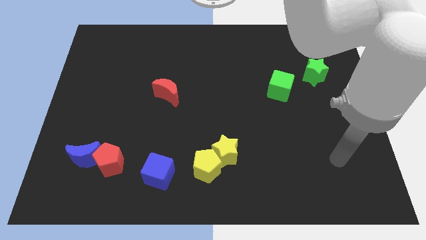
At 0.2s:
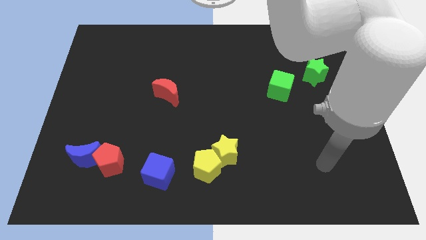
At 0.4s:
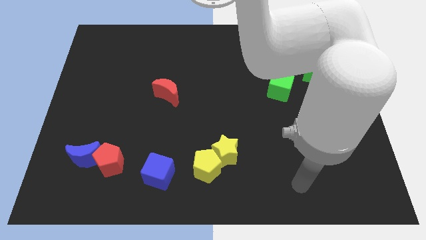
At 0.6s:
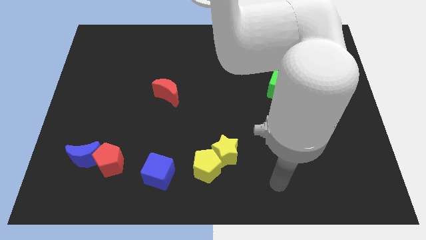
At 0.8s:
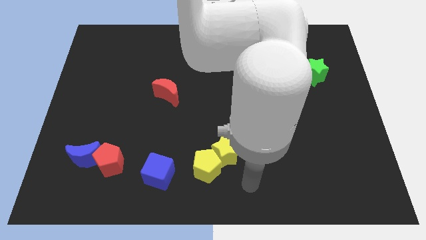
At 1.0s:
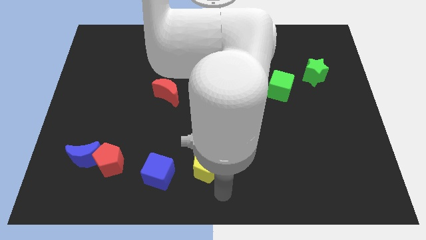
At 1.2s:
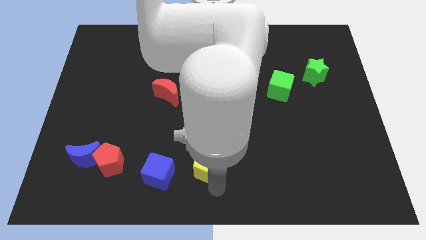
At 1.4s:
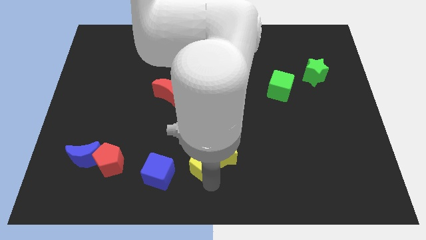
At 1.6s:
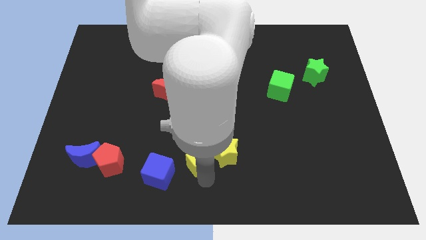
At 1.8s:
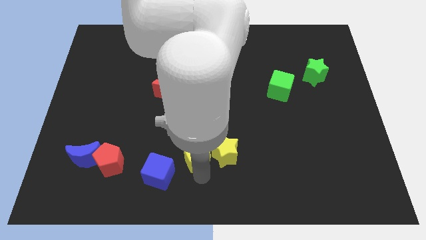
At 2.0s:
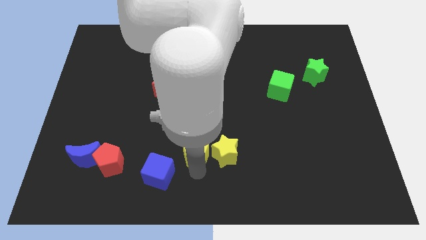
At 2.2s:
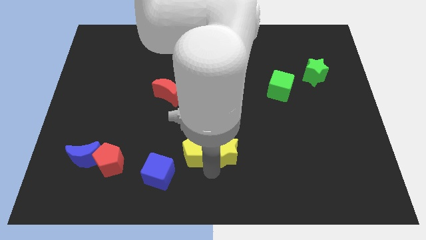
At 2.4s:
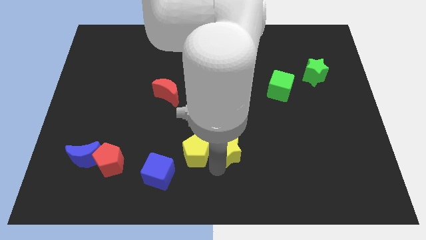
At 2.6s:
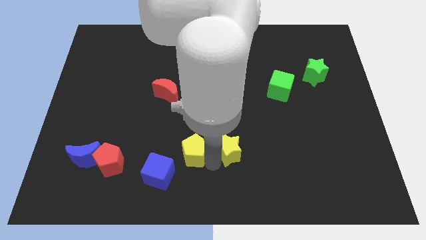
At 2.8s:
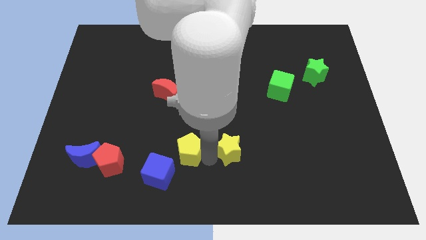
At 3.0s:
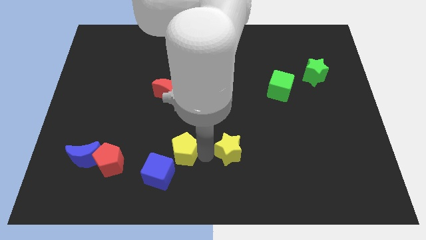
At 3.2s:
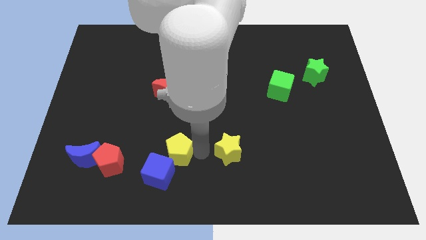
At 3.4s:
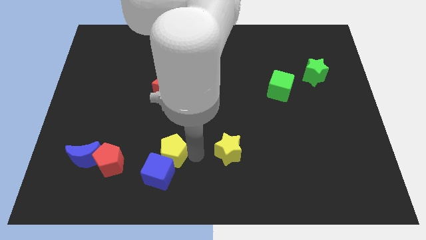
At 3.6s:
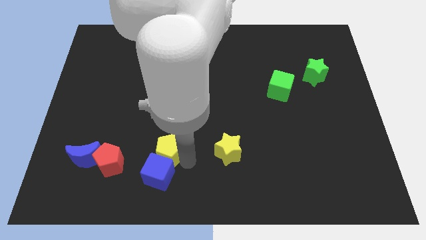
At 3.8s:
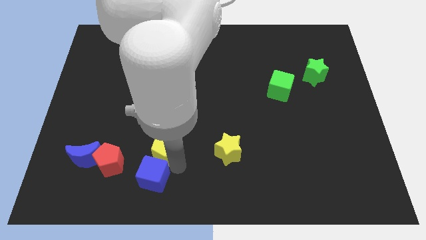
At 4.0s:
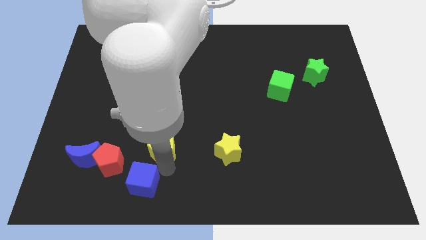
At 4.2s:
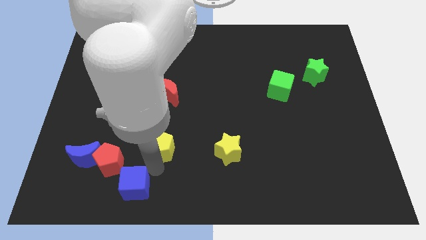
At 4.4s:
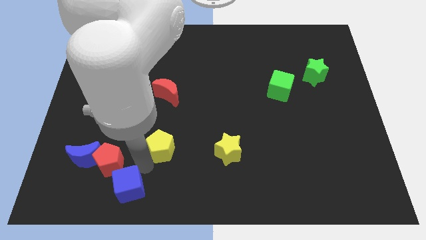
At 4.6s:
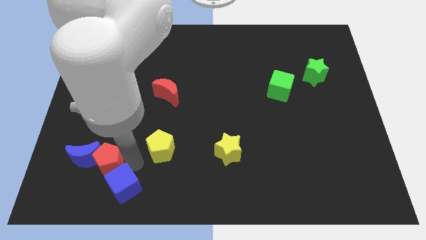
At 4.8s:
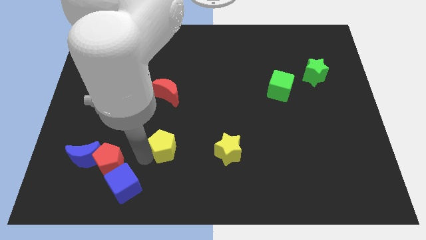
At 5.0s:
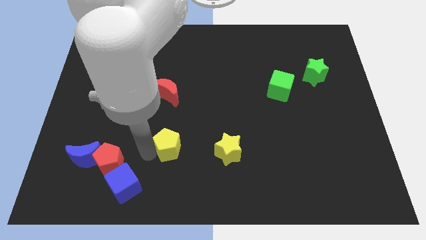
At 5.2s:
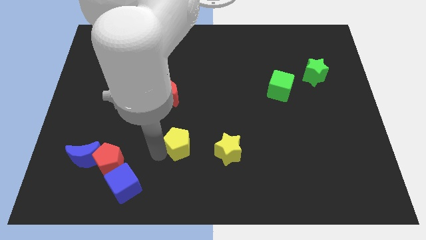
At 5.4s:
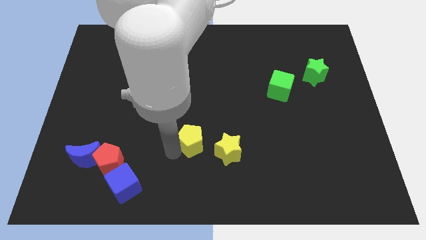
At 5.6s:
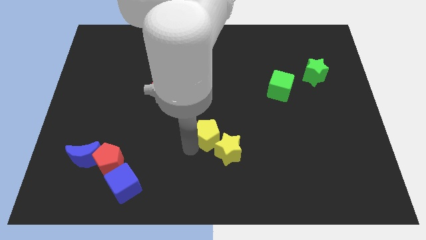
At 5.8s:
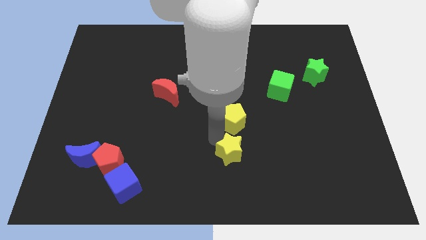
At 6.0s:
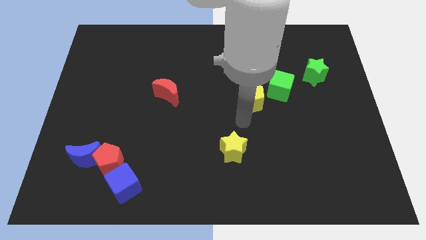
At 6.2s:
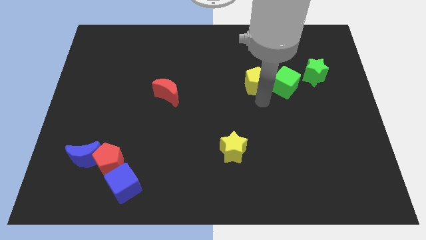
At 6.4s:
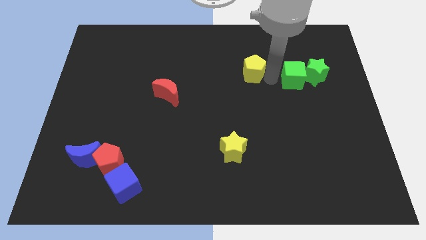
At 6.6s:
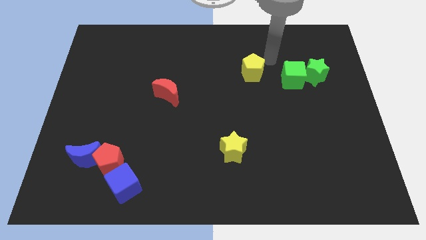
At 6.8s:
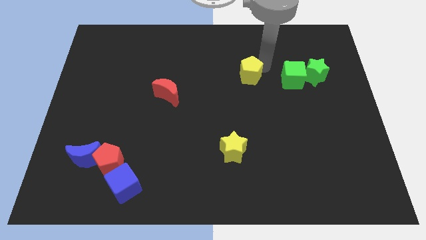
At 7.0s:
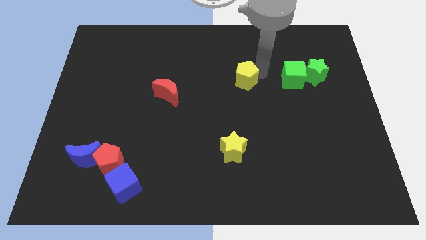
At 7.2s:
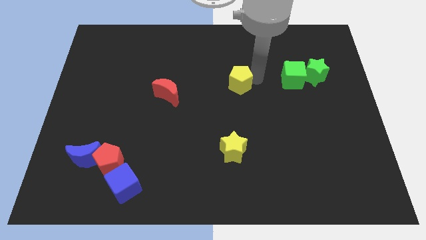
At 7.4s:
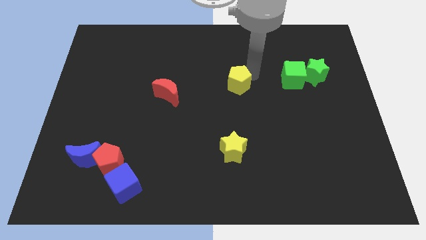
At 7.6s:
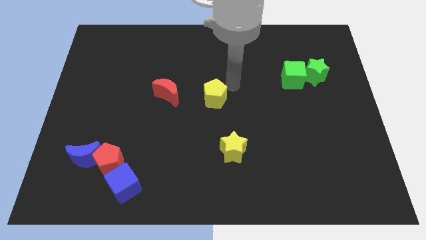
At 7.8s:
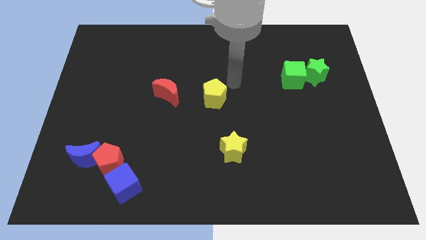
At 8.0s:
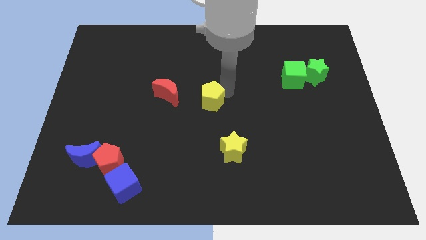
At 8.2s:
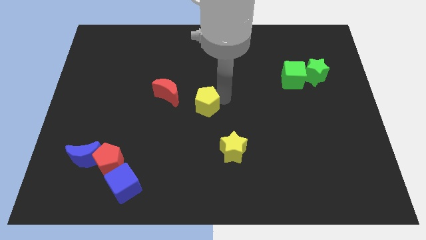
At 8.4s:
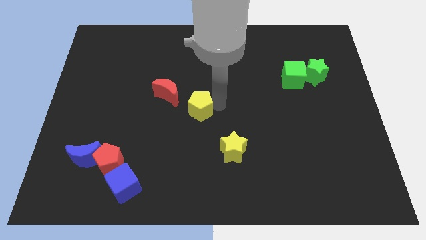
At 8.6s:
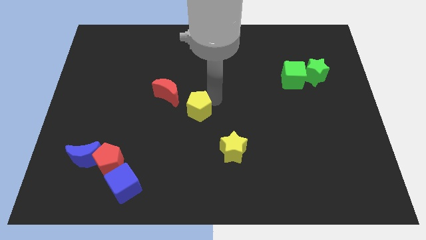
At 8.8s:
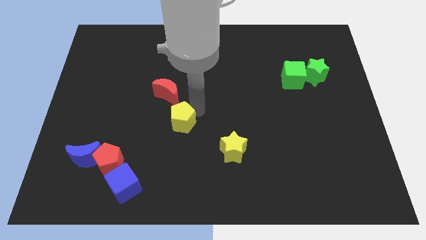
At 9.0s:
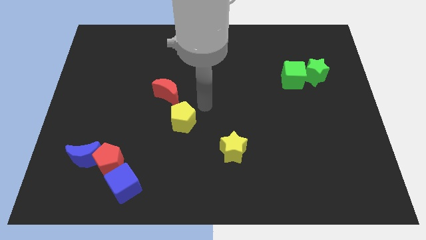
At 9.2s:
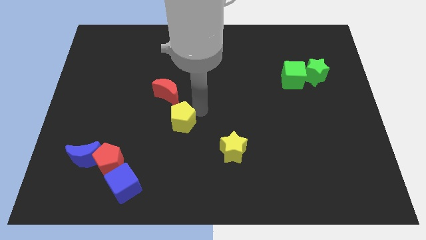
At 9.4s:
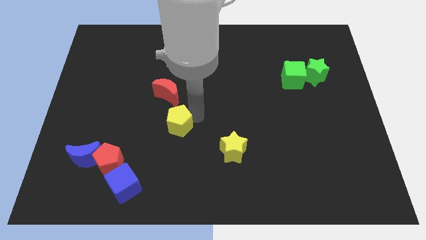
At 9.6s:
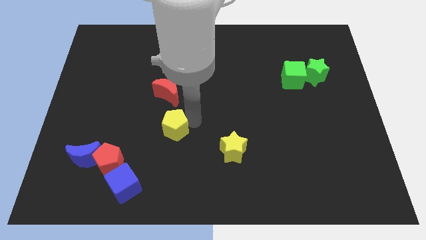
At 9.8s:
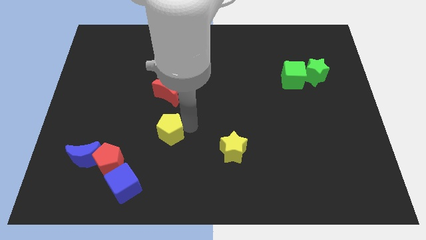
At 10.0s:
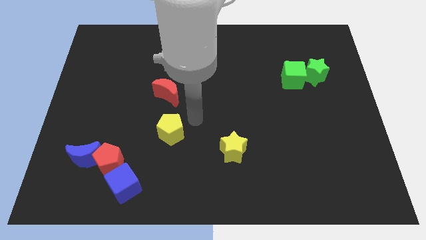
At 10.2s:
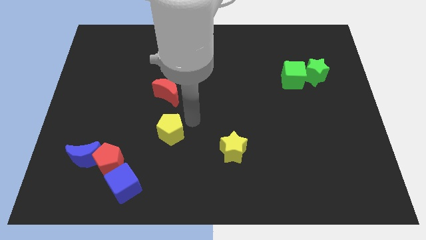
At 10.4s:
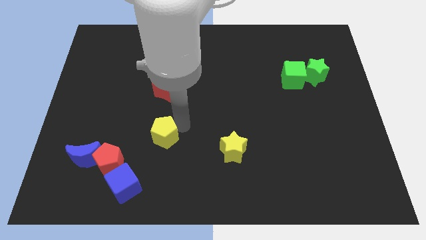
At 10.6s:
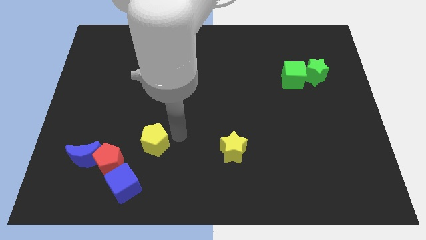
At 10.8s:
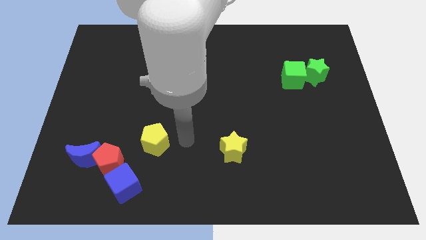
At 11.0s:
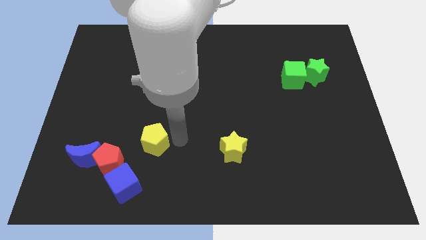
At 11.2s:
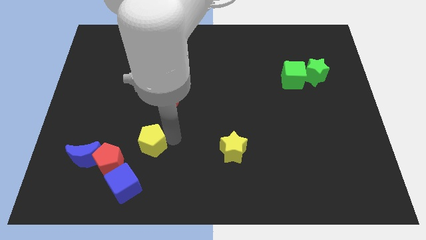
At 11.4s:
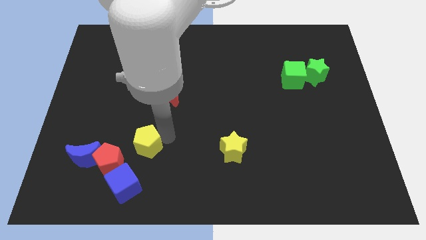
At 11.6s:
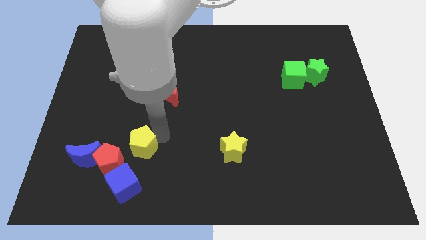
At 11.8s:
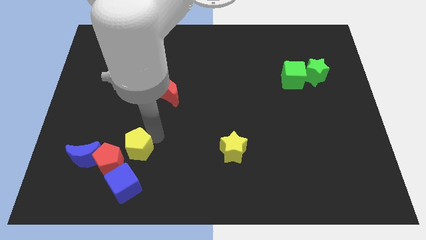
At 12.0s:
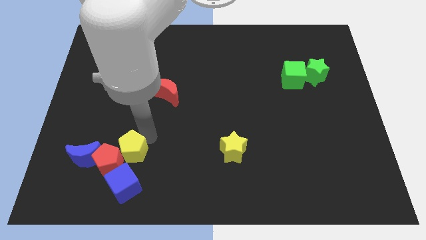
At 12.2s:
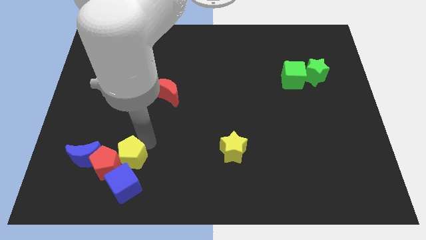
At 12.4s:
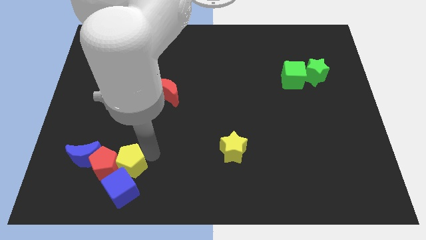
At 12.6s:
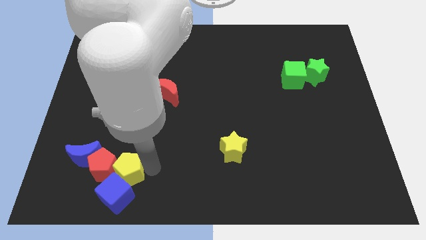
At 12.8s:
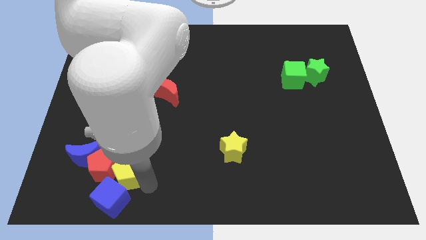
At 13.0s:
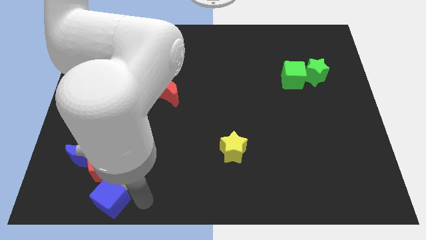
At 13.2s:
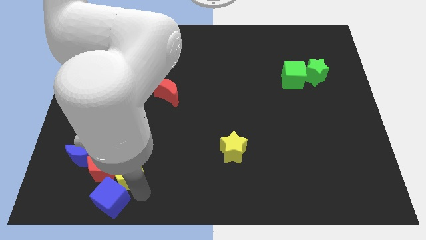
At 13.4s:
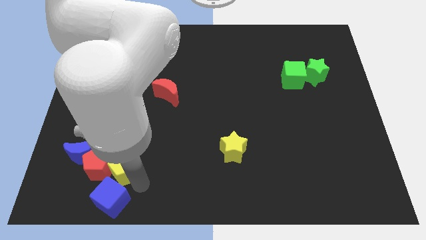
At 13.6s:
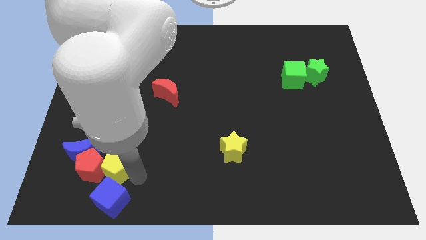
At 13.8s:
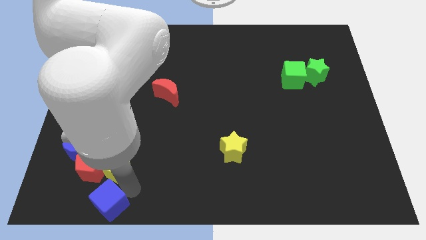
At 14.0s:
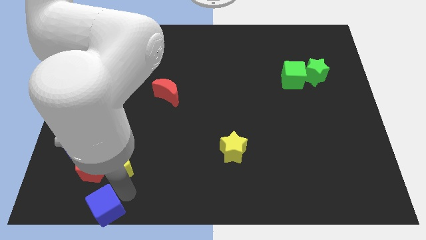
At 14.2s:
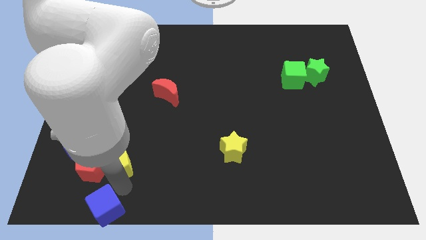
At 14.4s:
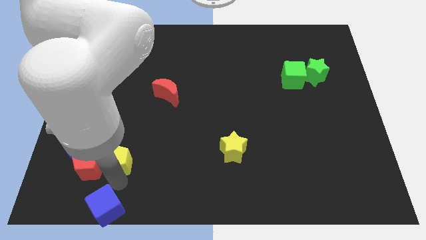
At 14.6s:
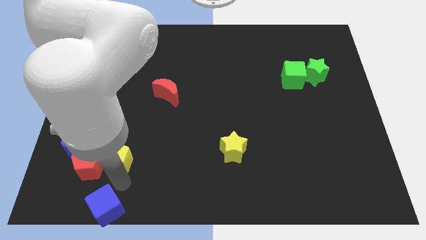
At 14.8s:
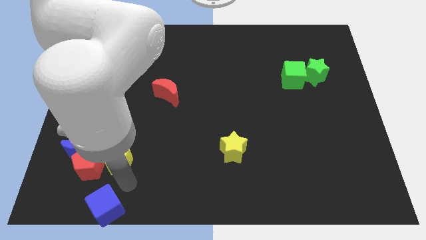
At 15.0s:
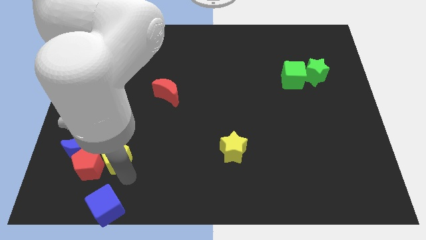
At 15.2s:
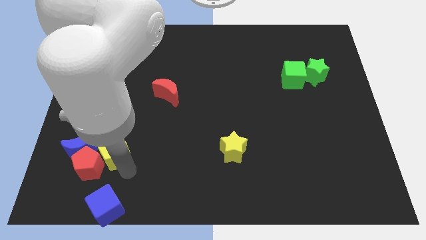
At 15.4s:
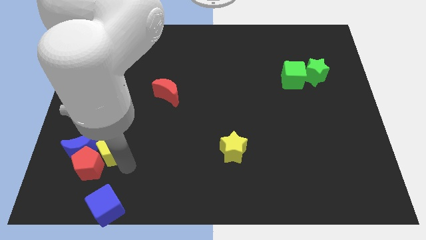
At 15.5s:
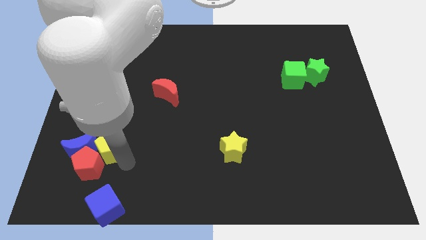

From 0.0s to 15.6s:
put the yellow pentagon next to the blue moon
